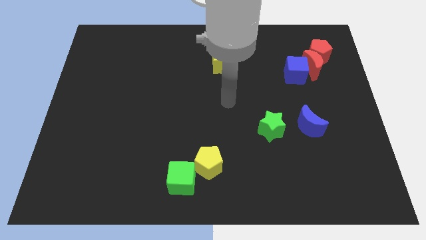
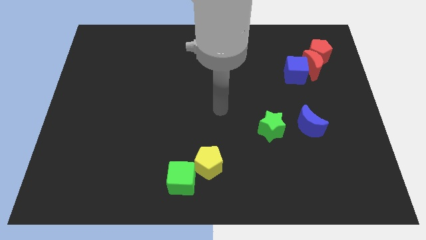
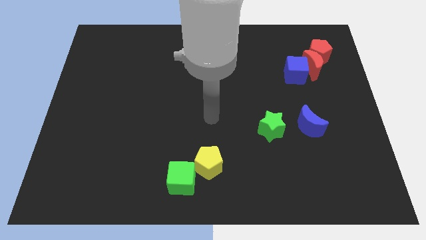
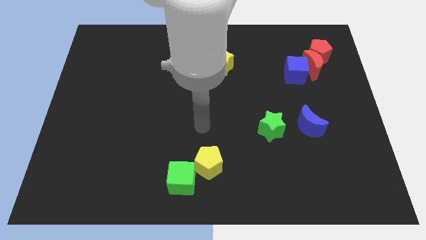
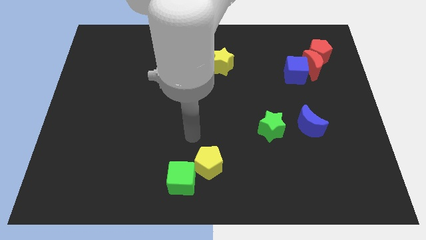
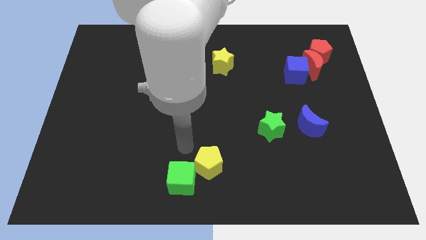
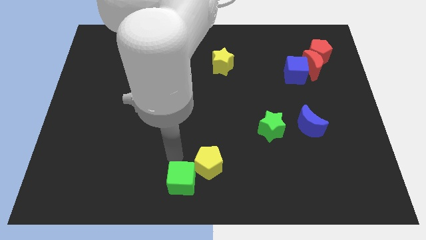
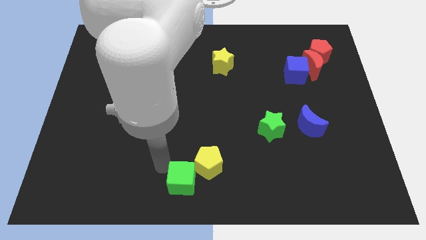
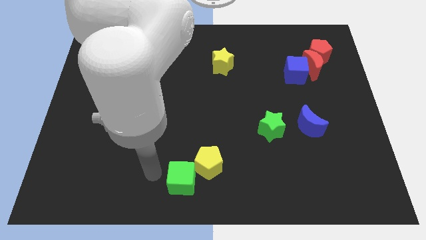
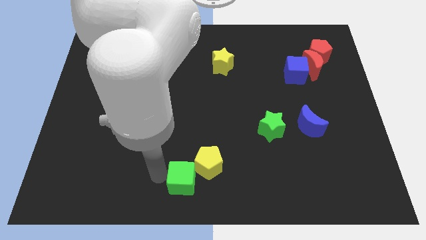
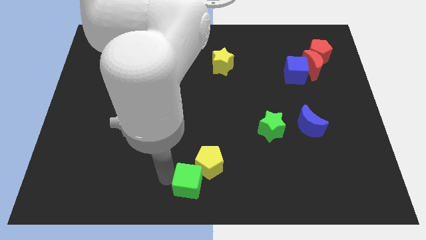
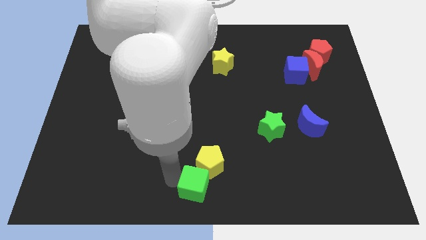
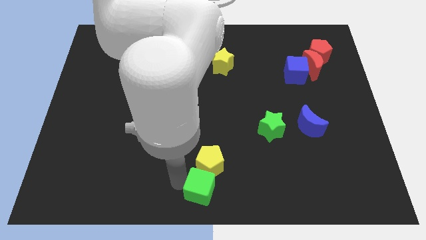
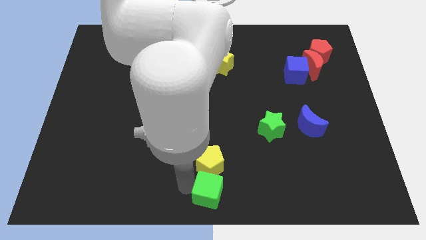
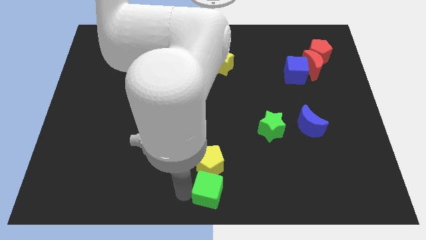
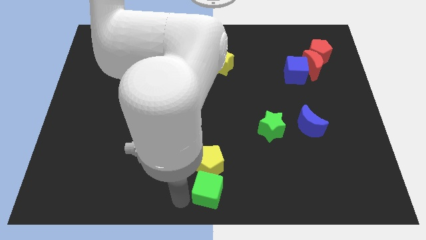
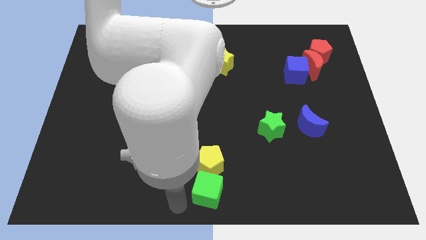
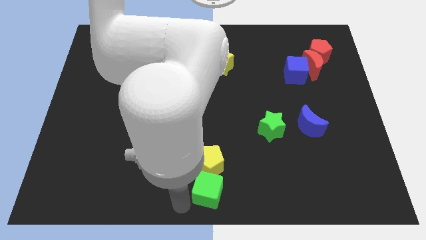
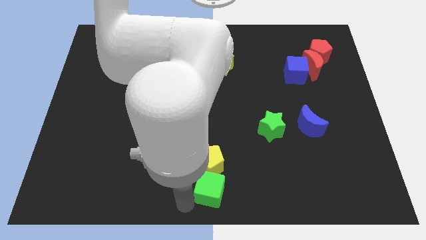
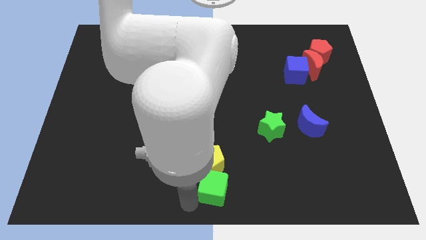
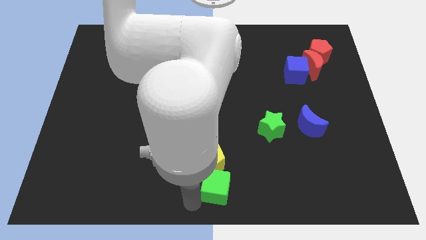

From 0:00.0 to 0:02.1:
slightly push the green cube to the right

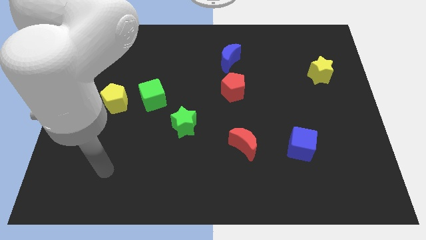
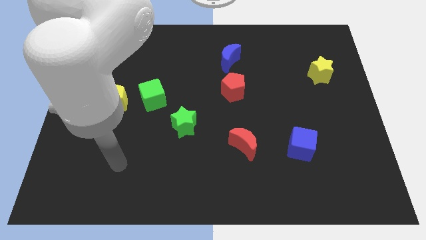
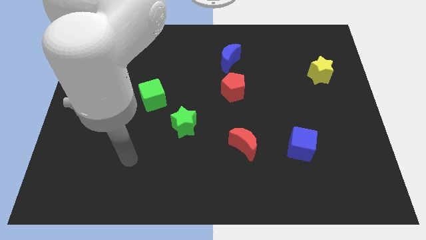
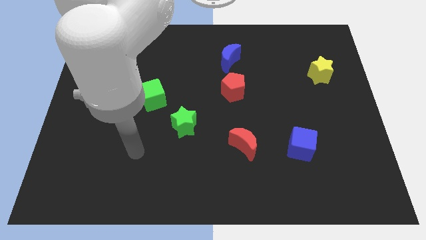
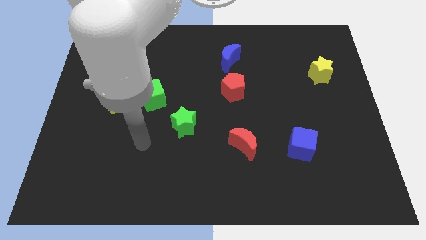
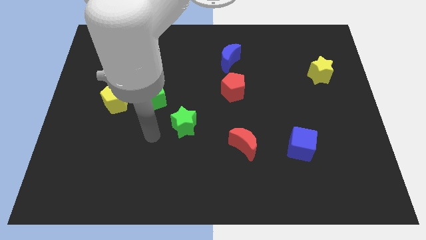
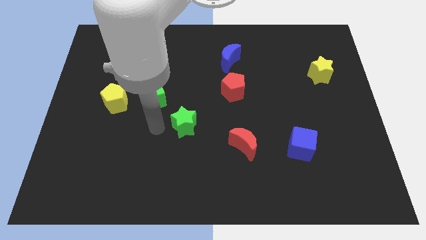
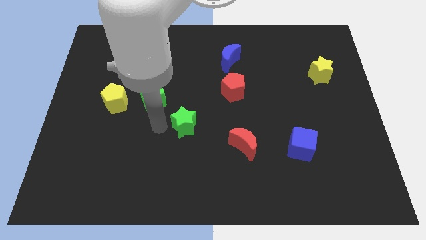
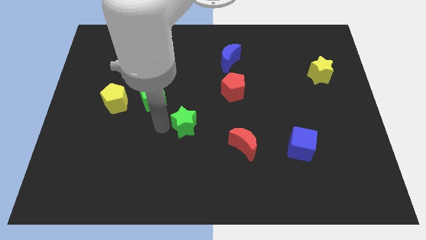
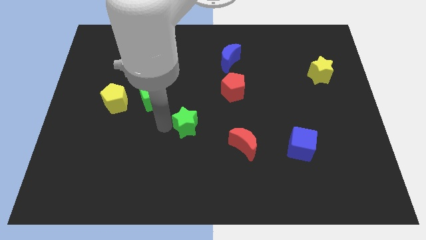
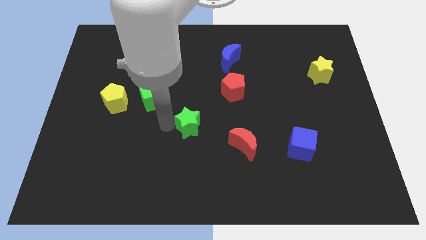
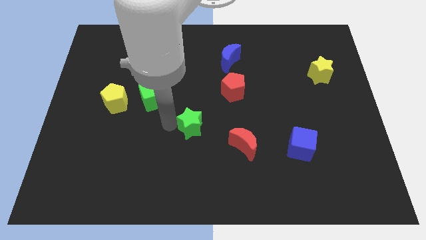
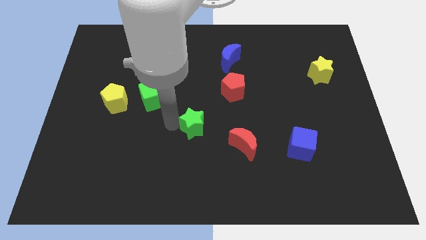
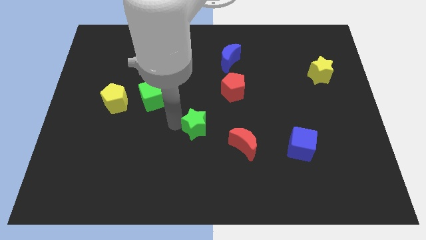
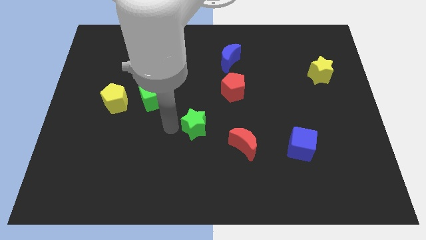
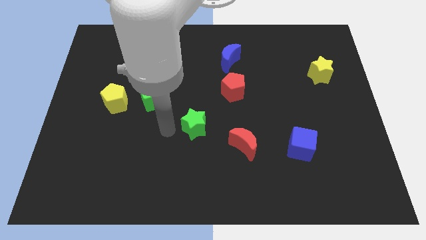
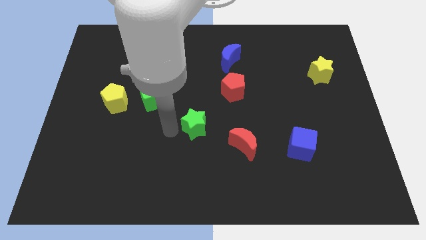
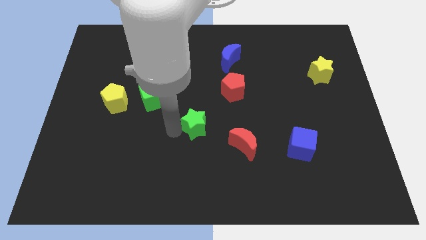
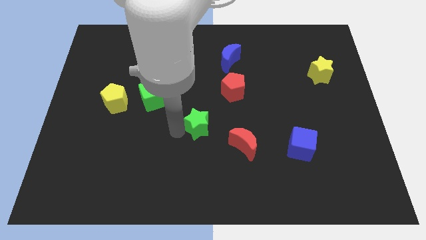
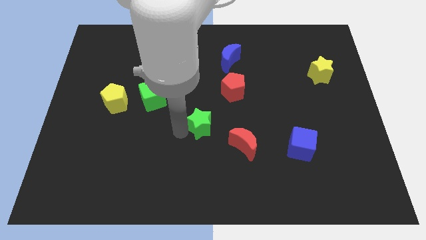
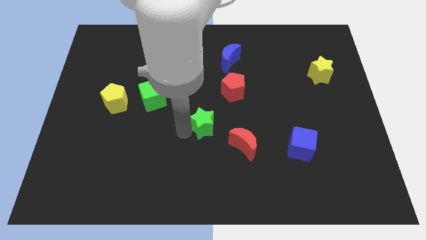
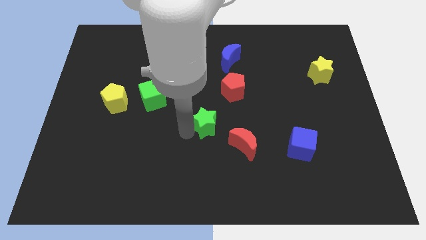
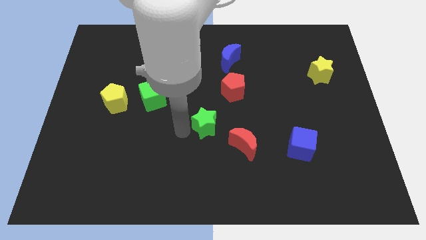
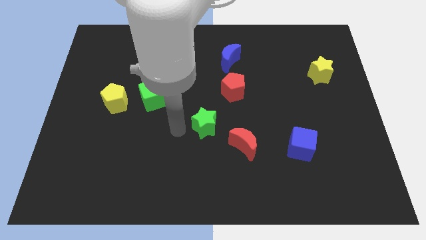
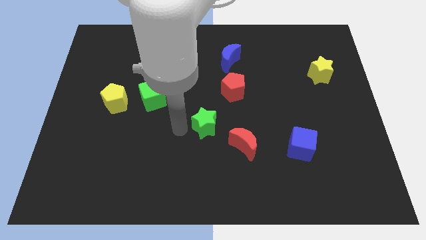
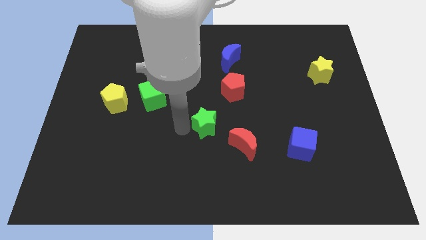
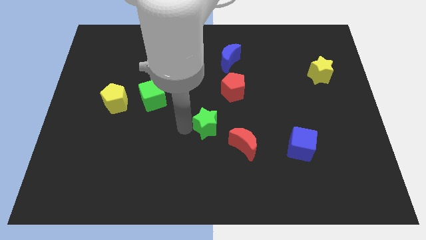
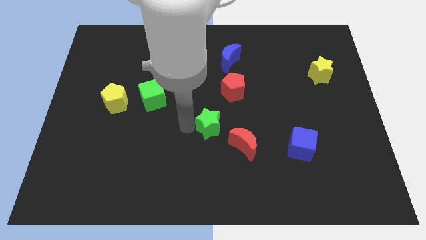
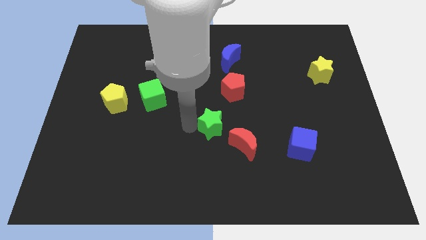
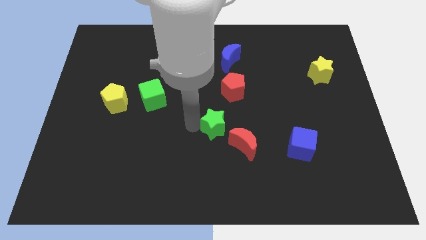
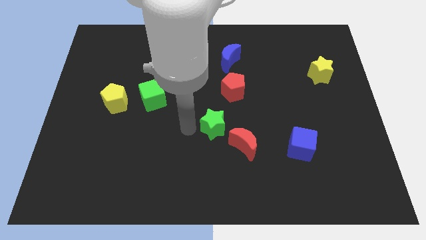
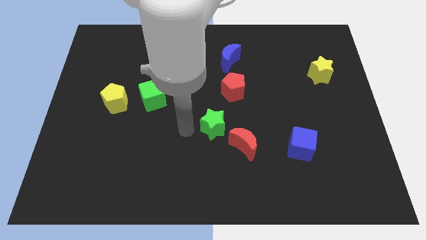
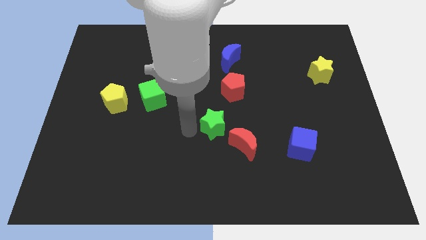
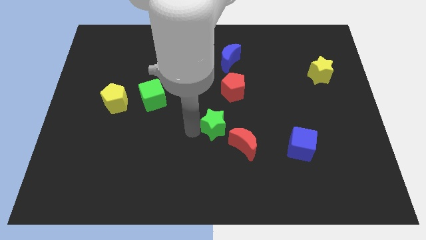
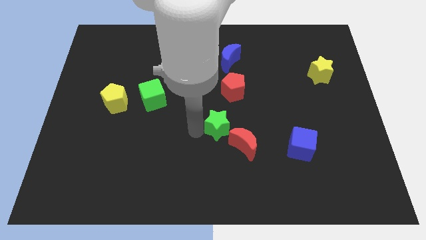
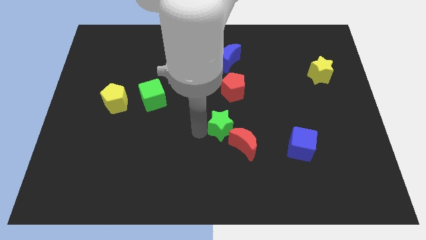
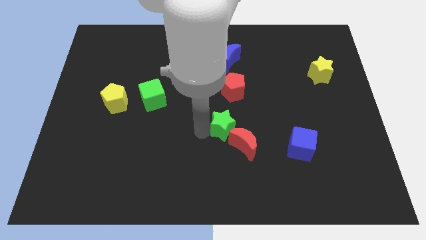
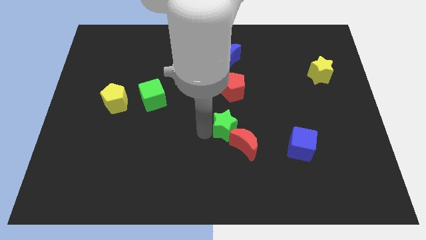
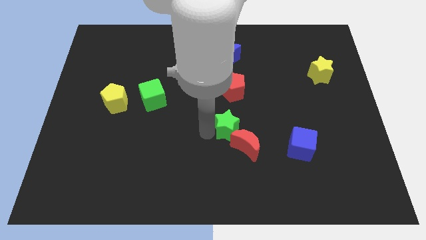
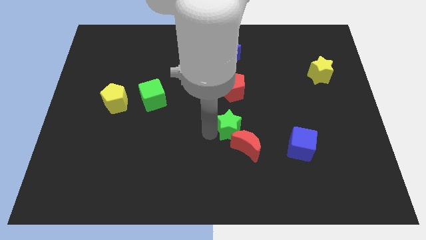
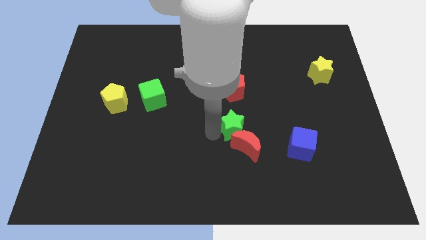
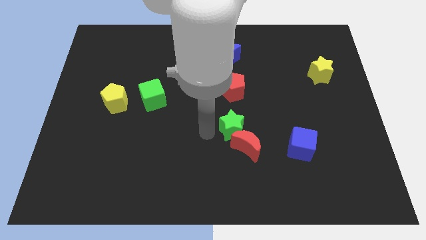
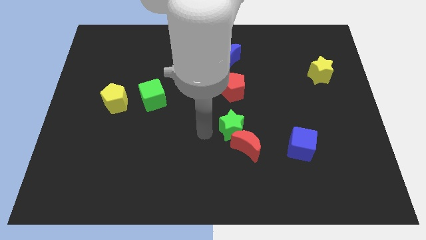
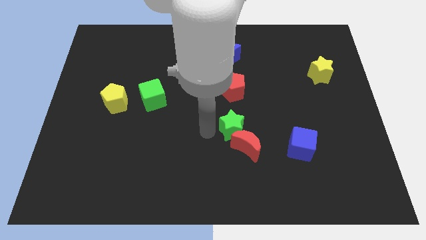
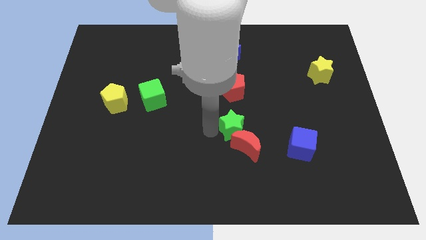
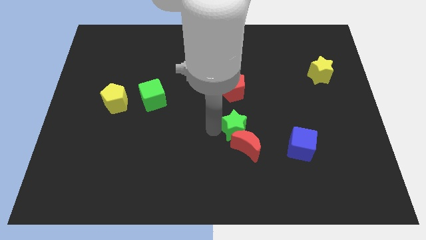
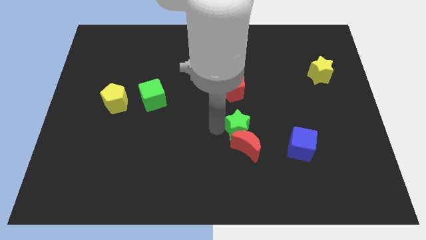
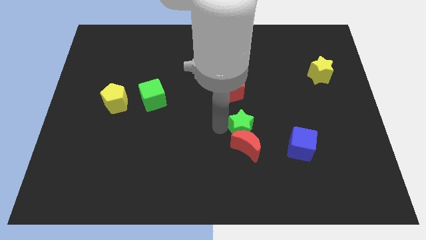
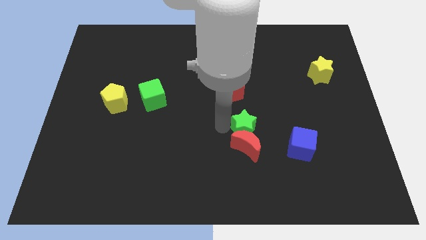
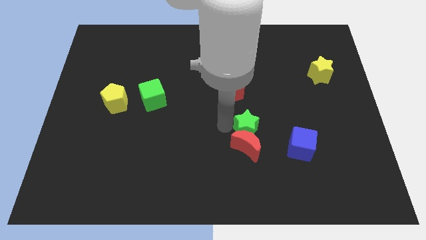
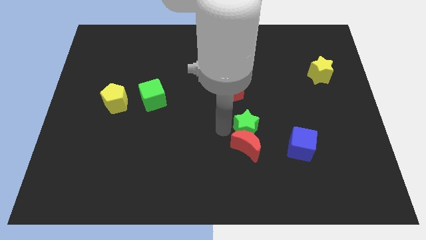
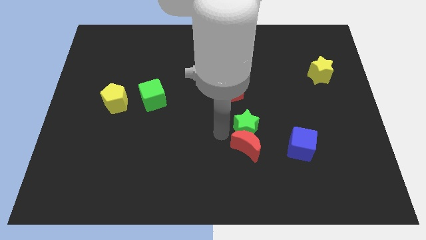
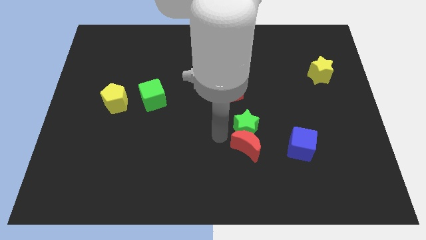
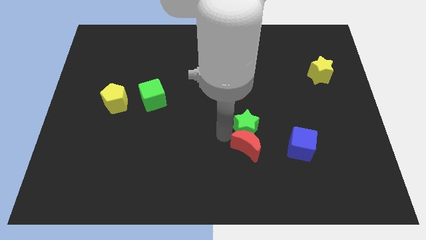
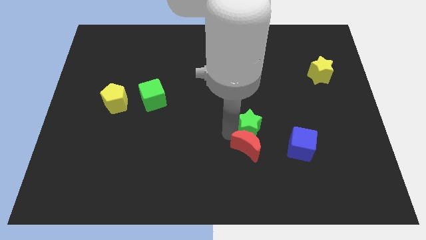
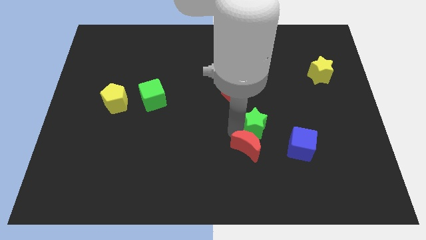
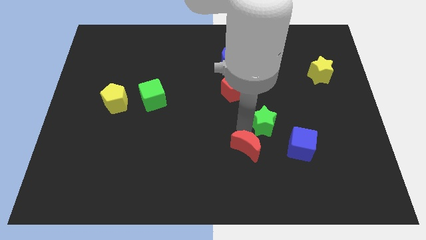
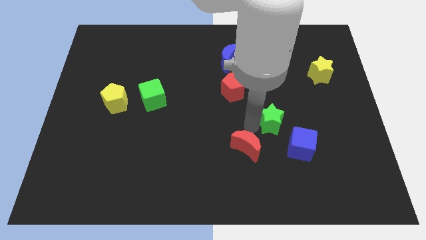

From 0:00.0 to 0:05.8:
push the green star to the right
